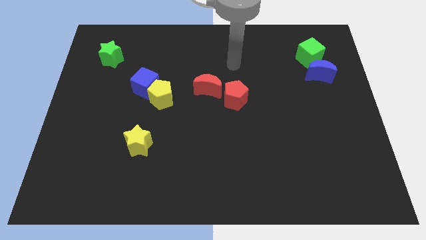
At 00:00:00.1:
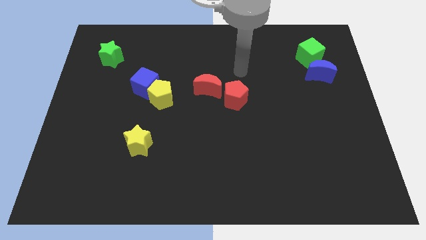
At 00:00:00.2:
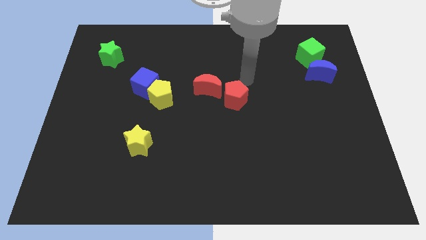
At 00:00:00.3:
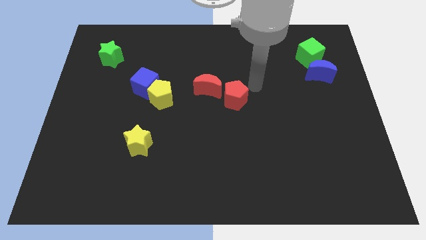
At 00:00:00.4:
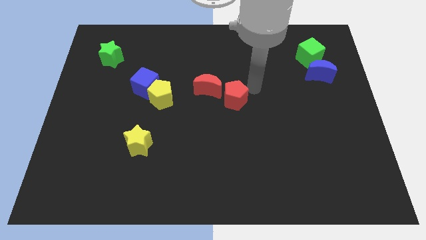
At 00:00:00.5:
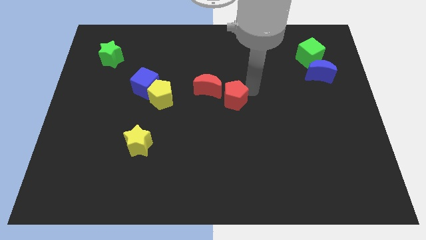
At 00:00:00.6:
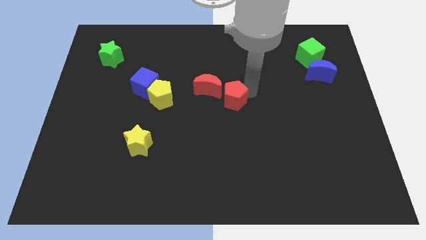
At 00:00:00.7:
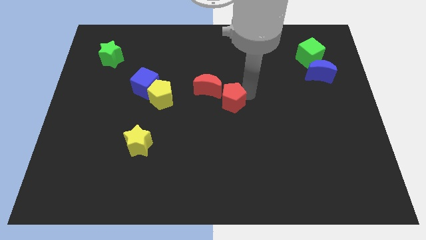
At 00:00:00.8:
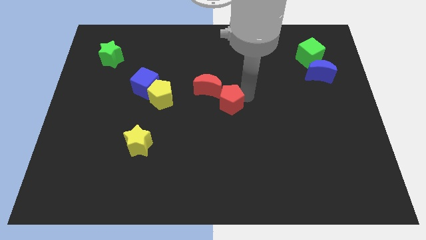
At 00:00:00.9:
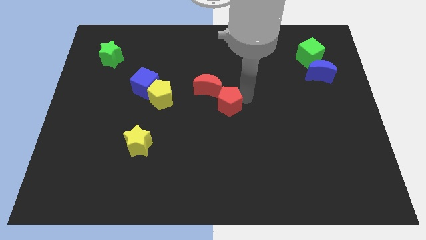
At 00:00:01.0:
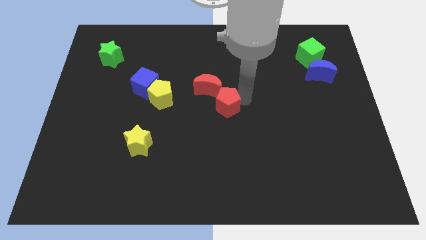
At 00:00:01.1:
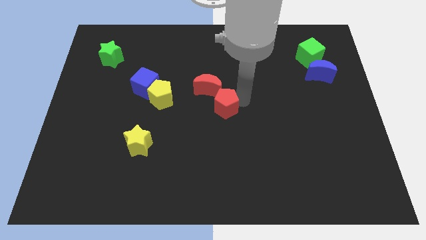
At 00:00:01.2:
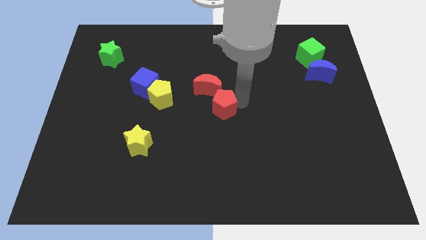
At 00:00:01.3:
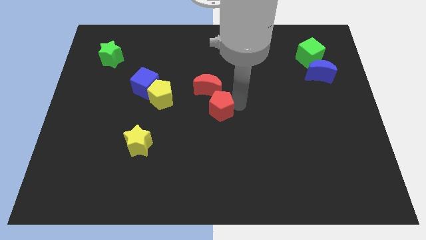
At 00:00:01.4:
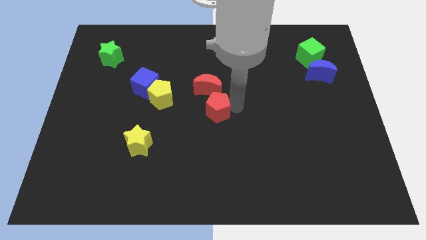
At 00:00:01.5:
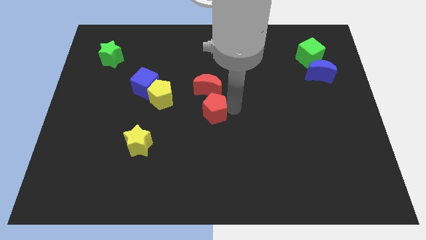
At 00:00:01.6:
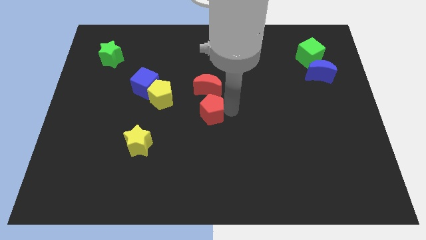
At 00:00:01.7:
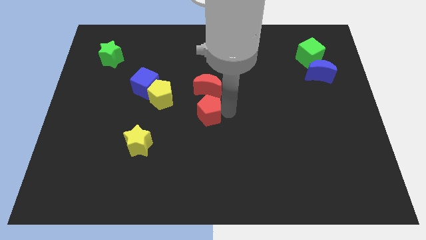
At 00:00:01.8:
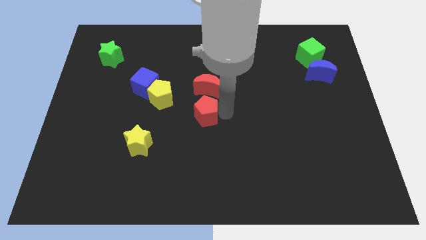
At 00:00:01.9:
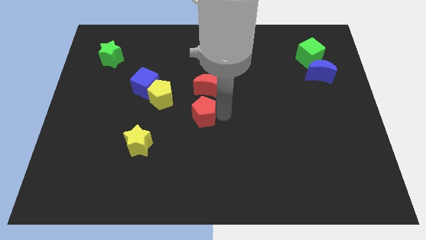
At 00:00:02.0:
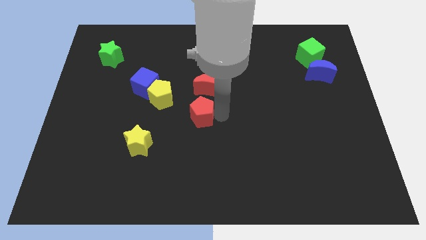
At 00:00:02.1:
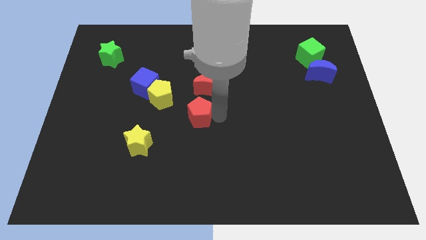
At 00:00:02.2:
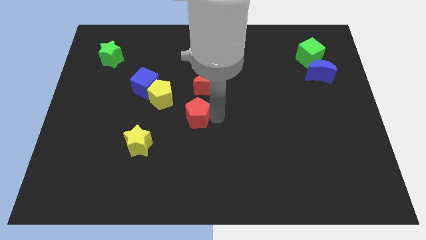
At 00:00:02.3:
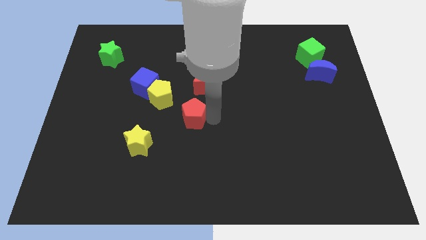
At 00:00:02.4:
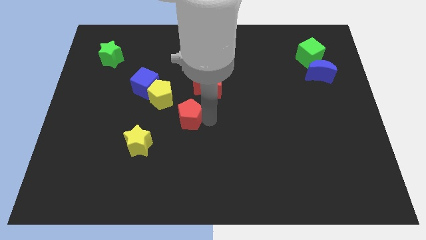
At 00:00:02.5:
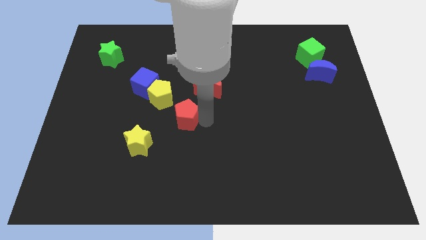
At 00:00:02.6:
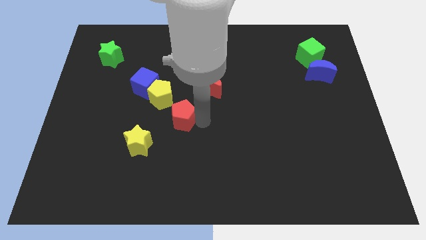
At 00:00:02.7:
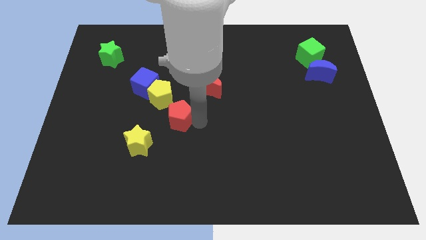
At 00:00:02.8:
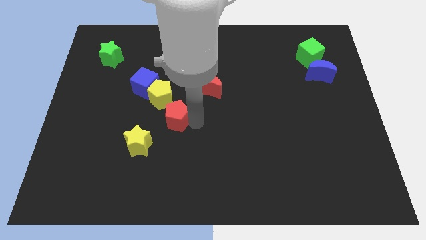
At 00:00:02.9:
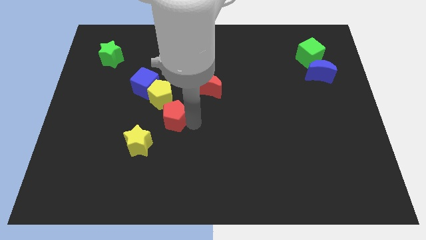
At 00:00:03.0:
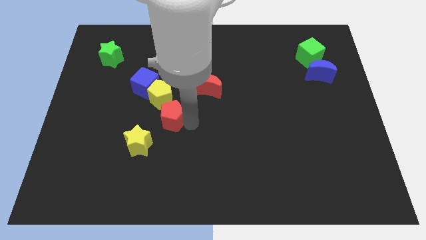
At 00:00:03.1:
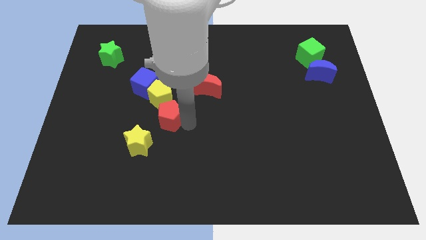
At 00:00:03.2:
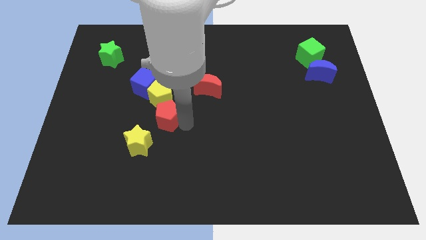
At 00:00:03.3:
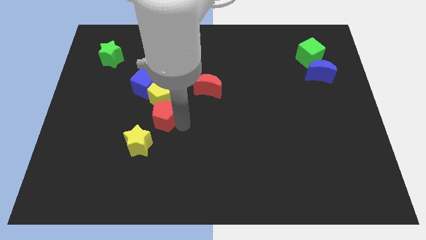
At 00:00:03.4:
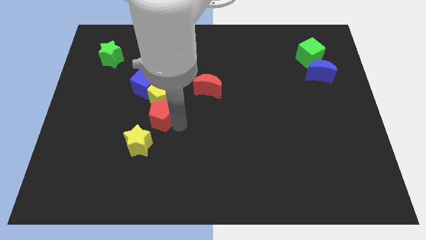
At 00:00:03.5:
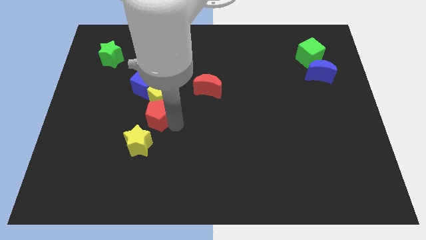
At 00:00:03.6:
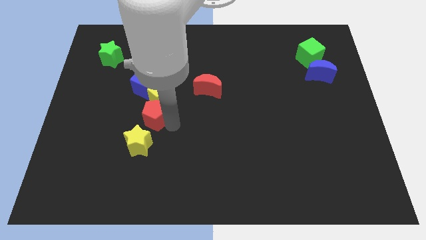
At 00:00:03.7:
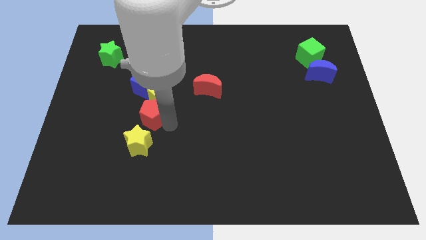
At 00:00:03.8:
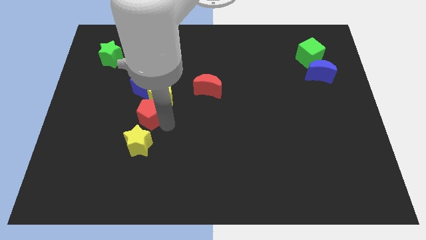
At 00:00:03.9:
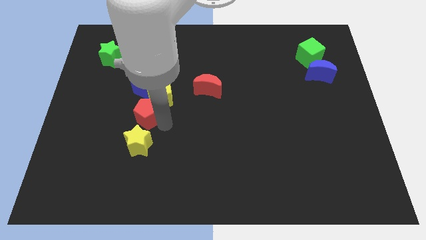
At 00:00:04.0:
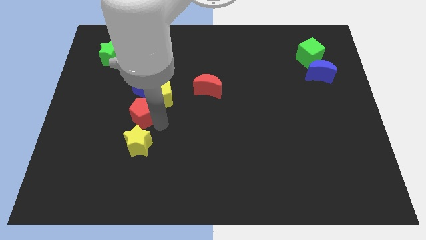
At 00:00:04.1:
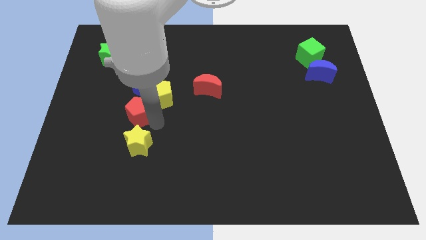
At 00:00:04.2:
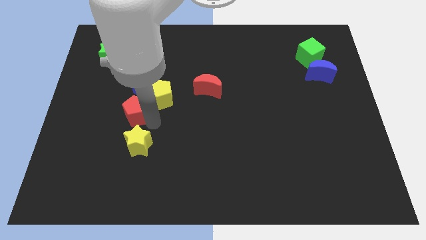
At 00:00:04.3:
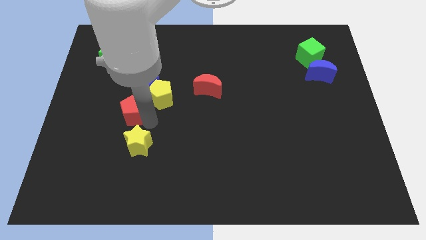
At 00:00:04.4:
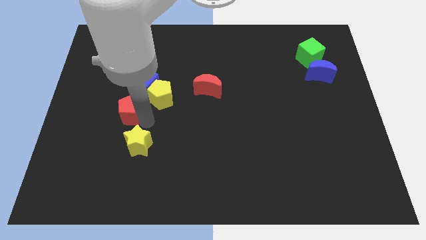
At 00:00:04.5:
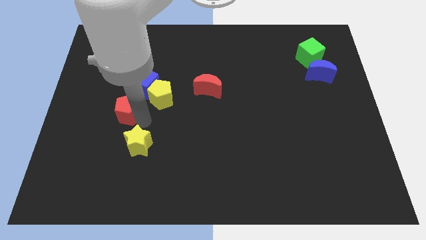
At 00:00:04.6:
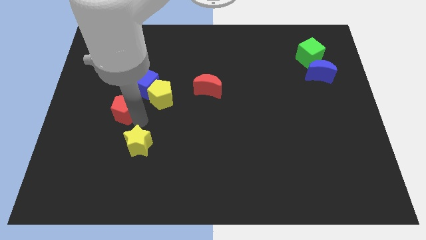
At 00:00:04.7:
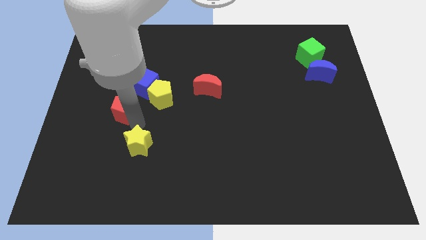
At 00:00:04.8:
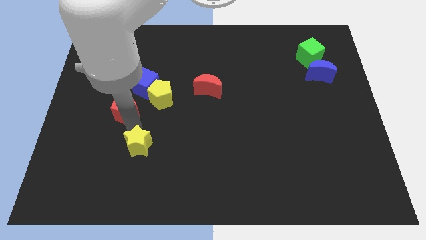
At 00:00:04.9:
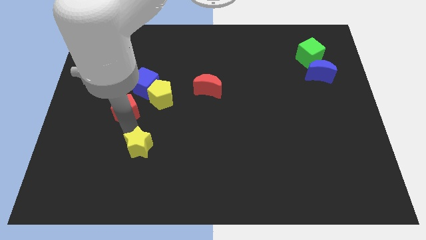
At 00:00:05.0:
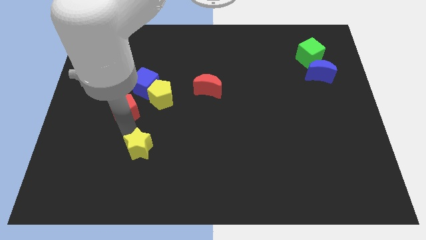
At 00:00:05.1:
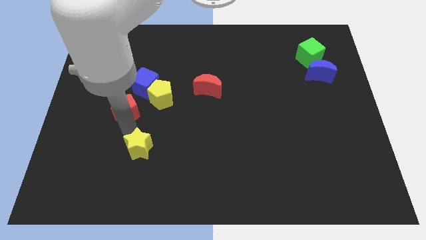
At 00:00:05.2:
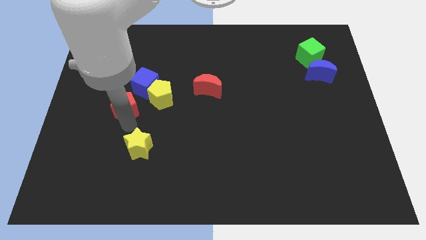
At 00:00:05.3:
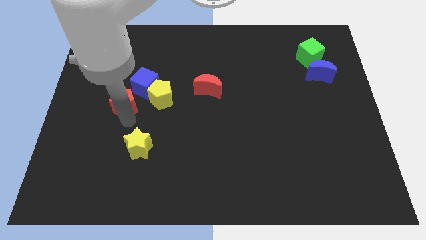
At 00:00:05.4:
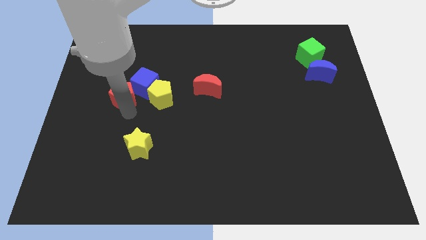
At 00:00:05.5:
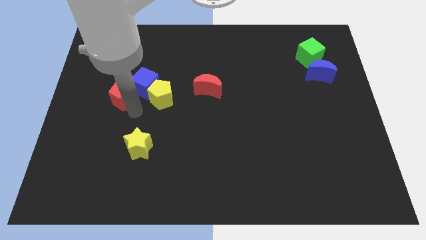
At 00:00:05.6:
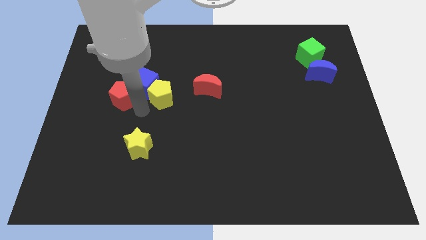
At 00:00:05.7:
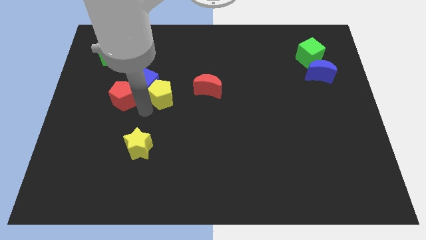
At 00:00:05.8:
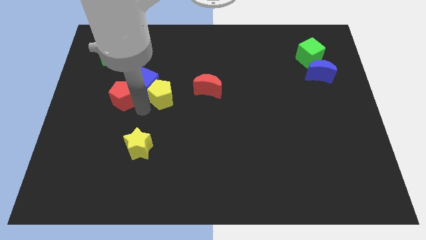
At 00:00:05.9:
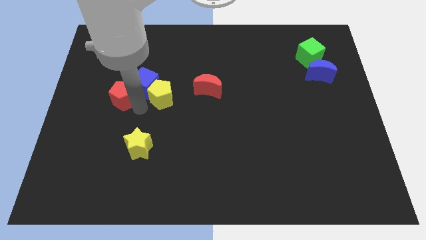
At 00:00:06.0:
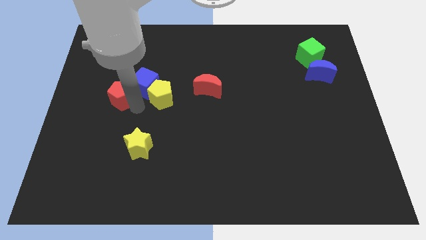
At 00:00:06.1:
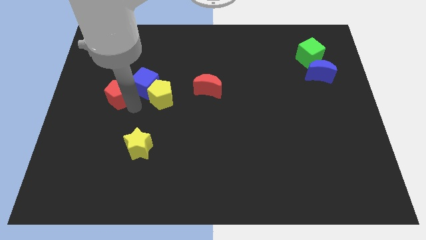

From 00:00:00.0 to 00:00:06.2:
slide the red pentagon below the green star

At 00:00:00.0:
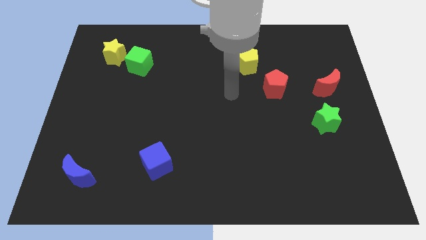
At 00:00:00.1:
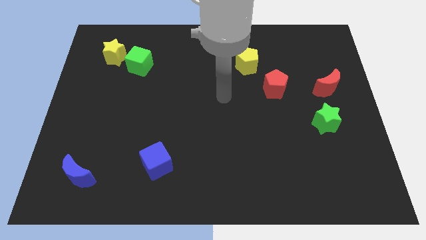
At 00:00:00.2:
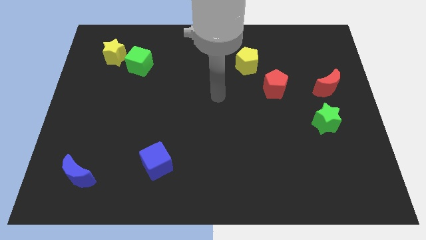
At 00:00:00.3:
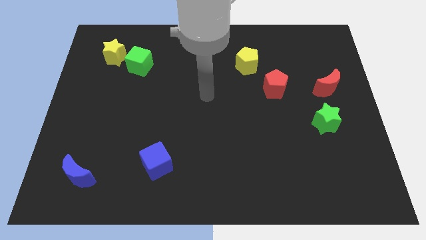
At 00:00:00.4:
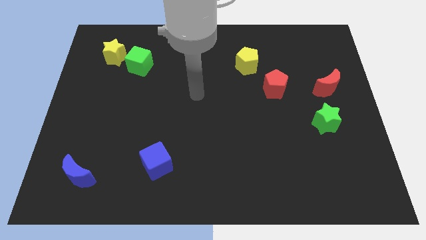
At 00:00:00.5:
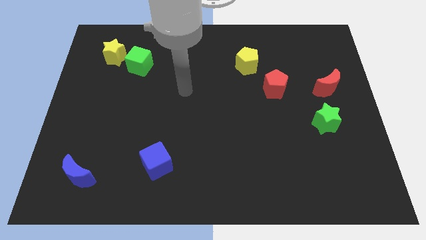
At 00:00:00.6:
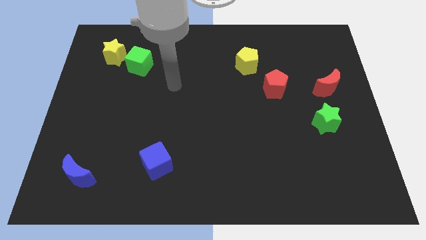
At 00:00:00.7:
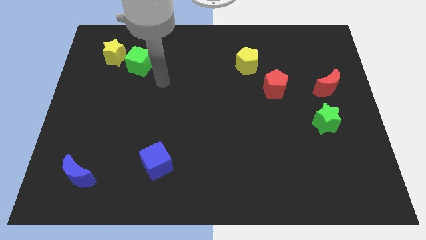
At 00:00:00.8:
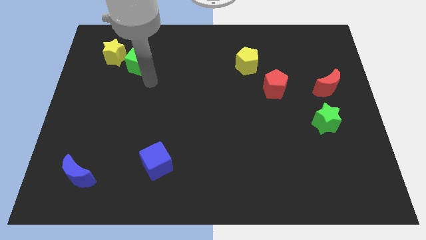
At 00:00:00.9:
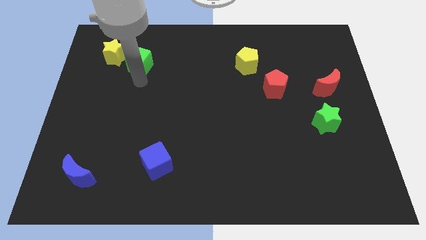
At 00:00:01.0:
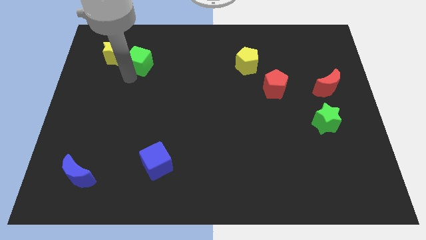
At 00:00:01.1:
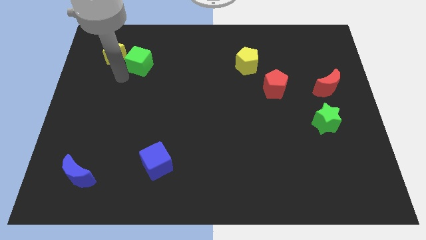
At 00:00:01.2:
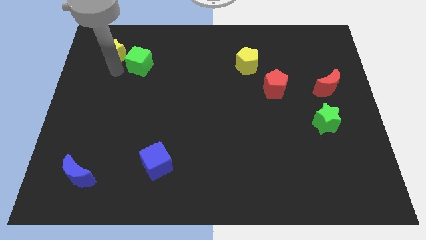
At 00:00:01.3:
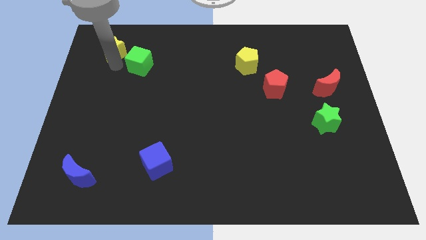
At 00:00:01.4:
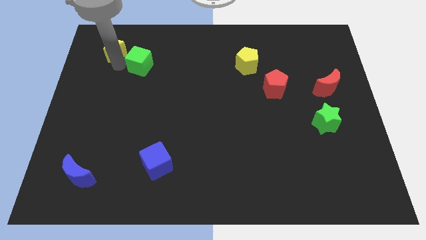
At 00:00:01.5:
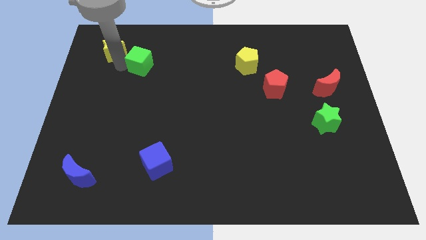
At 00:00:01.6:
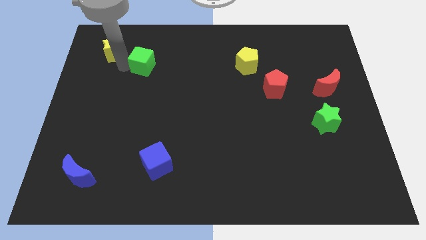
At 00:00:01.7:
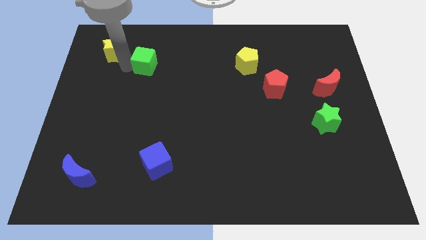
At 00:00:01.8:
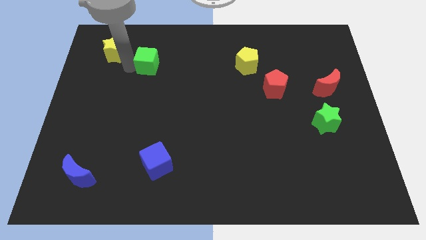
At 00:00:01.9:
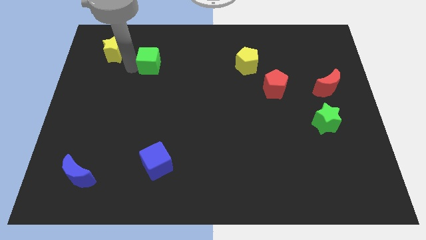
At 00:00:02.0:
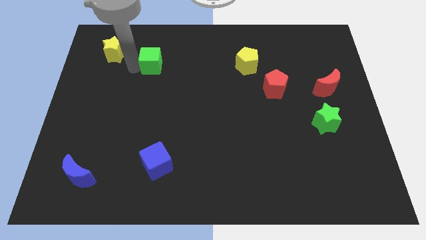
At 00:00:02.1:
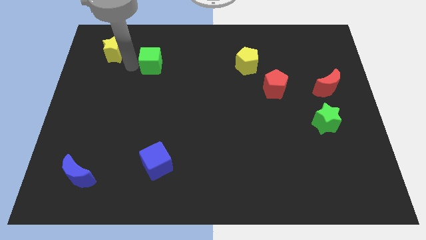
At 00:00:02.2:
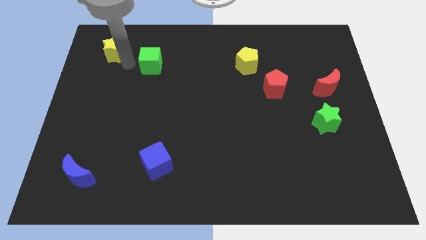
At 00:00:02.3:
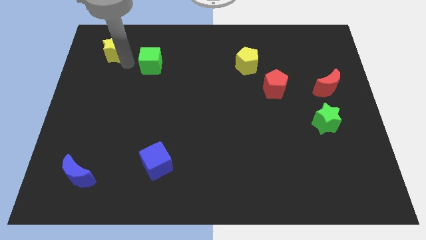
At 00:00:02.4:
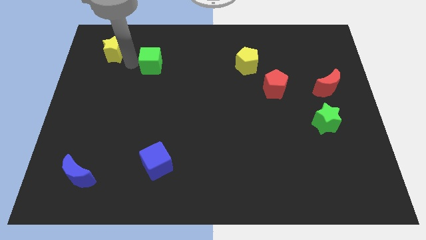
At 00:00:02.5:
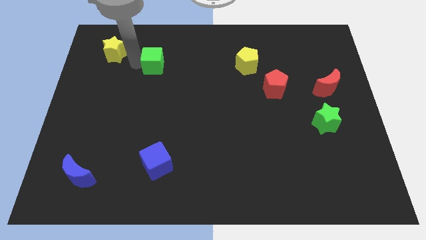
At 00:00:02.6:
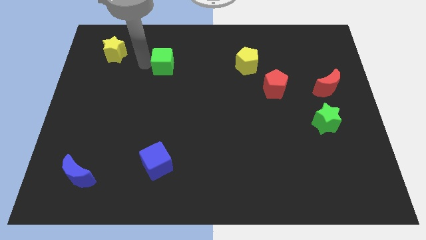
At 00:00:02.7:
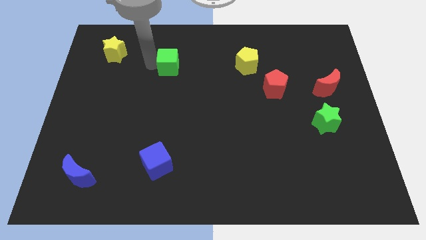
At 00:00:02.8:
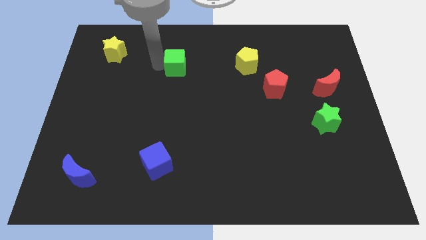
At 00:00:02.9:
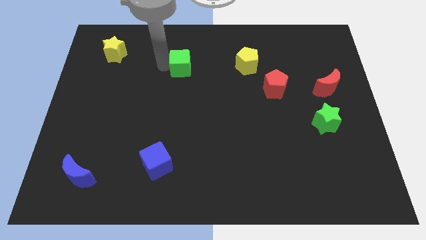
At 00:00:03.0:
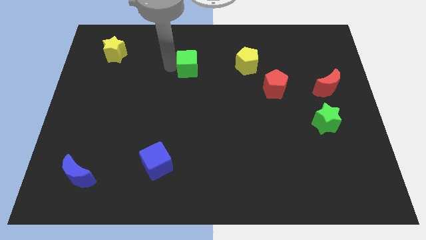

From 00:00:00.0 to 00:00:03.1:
slide the green cube to the left of the yellow pentagon
